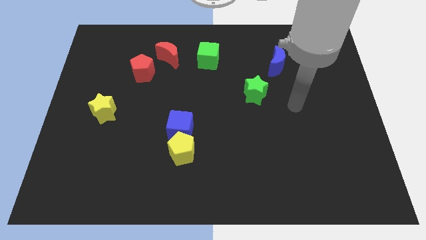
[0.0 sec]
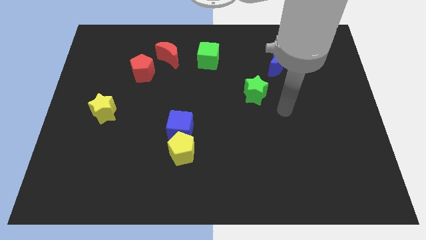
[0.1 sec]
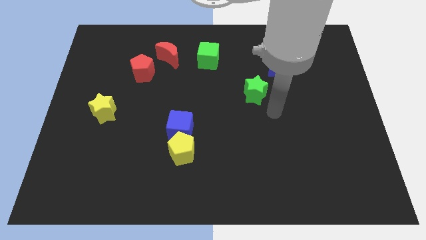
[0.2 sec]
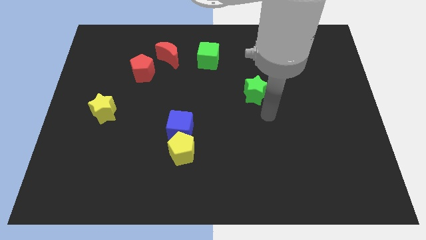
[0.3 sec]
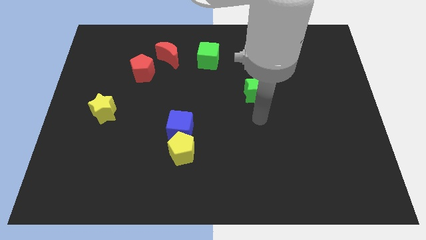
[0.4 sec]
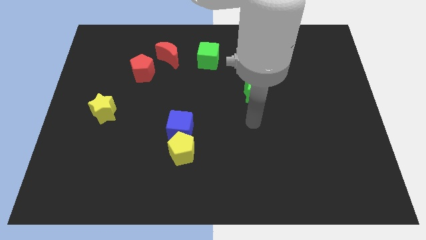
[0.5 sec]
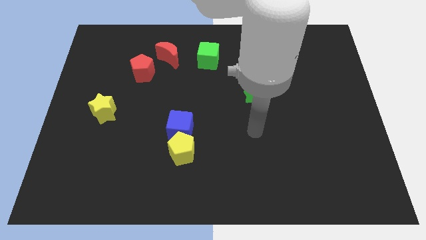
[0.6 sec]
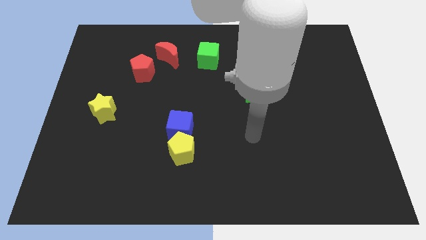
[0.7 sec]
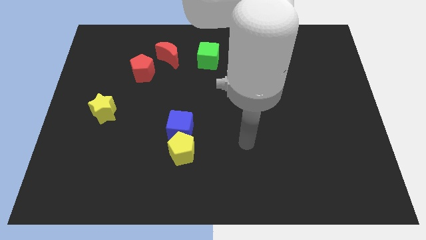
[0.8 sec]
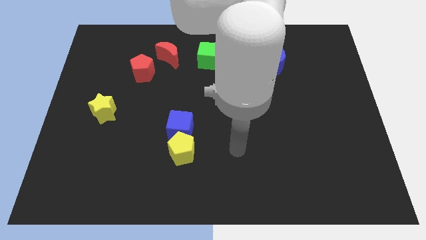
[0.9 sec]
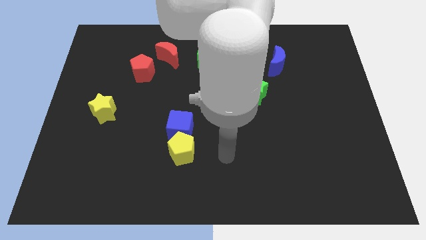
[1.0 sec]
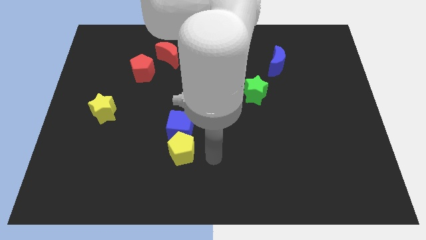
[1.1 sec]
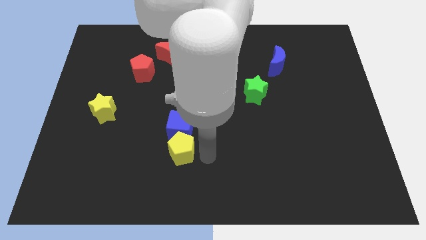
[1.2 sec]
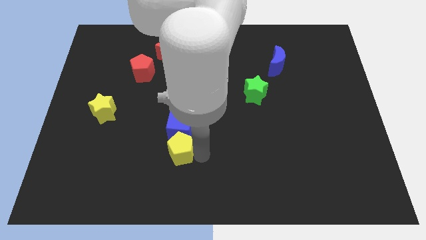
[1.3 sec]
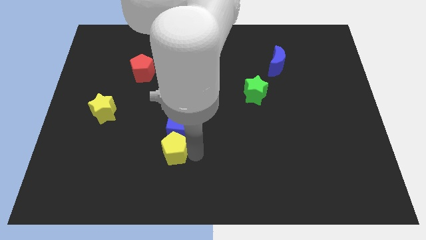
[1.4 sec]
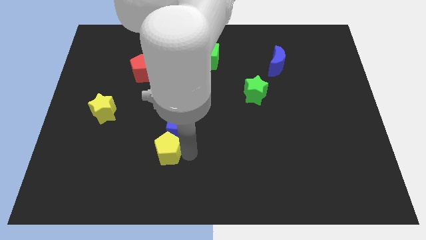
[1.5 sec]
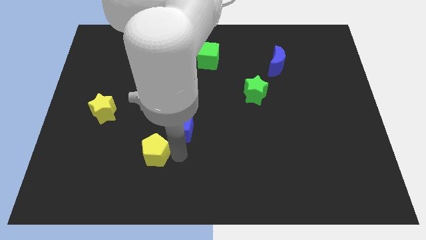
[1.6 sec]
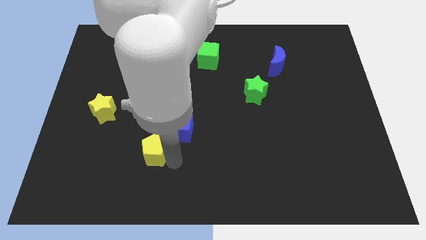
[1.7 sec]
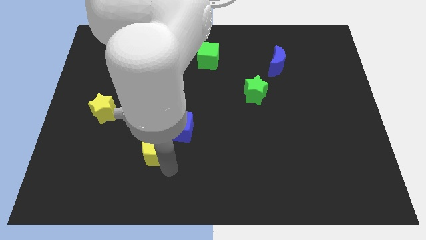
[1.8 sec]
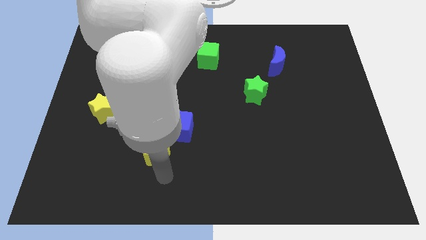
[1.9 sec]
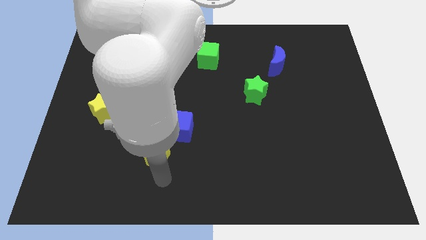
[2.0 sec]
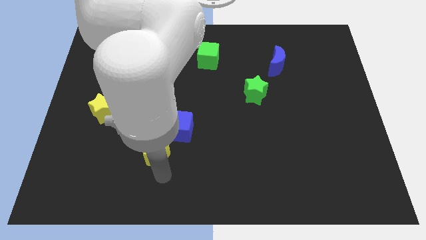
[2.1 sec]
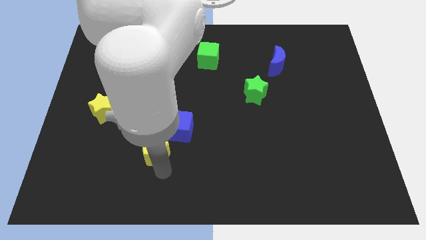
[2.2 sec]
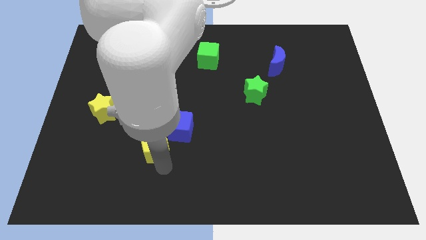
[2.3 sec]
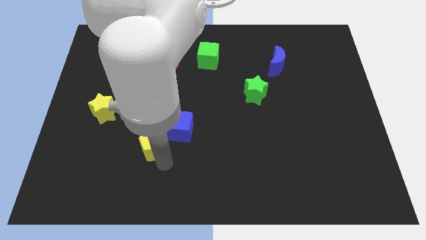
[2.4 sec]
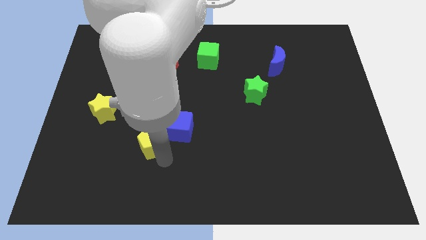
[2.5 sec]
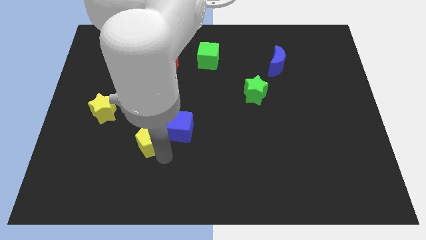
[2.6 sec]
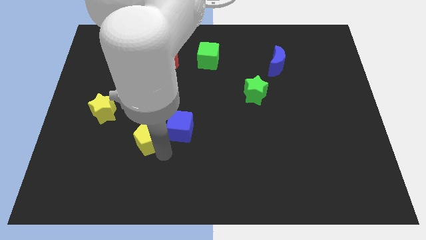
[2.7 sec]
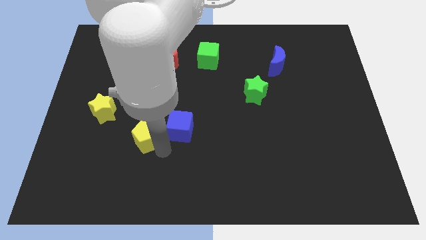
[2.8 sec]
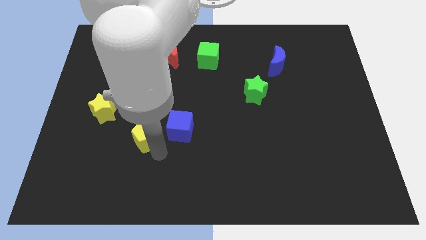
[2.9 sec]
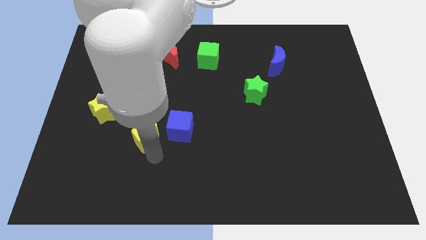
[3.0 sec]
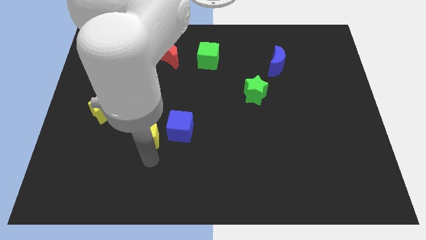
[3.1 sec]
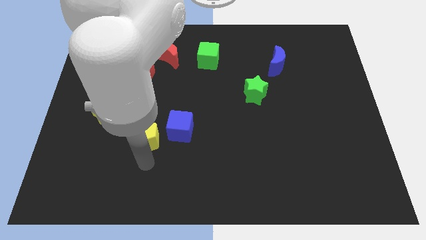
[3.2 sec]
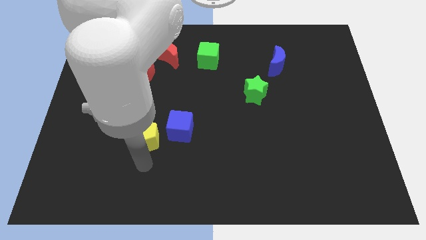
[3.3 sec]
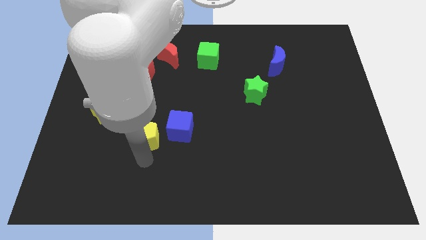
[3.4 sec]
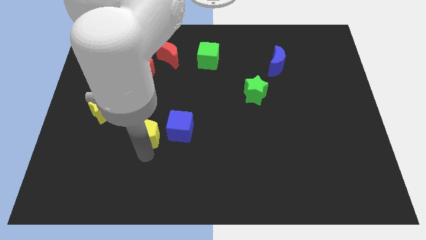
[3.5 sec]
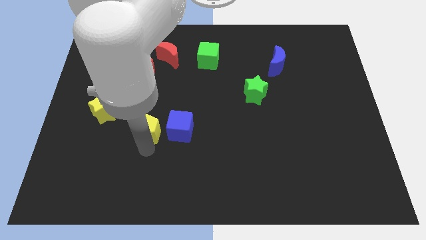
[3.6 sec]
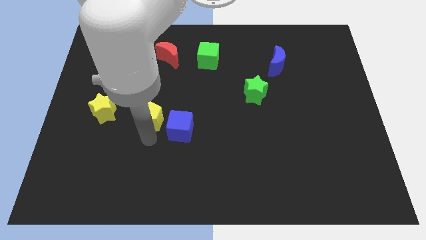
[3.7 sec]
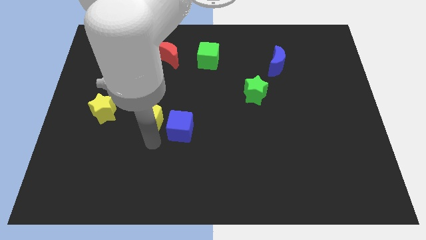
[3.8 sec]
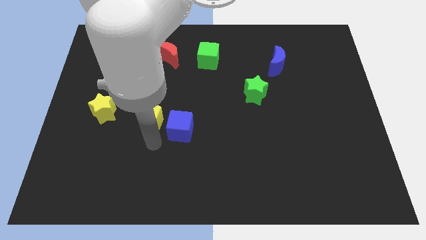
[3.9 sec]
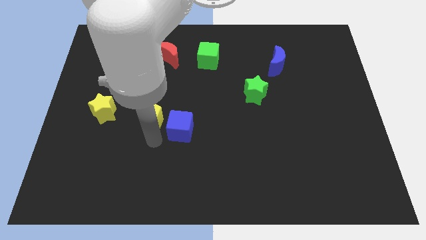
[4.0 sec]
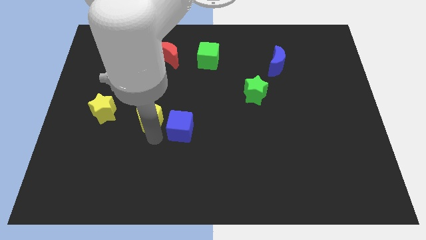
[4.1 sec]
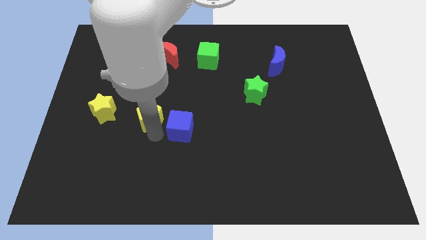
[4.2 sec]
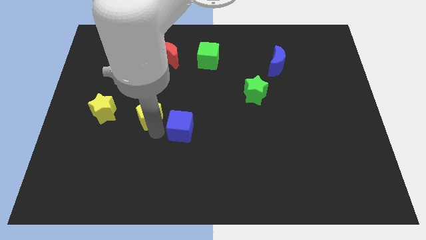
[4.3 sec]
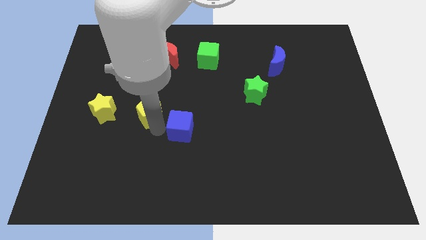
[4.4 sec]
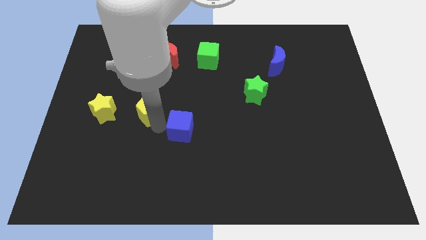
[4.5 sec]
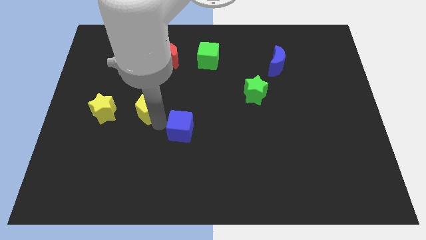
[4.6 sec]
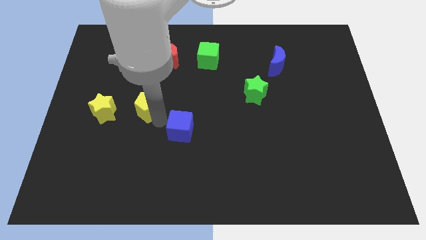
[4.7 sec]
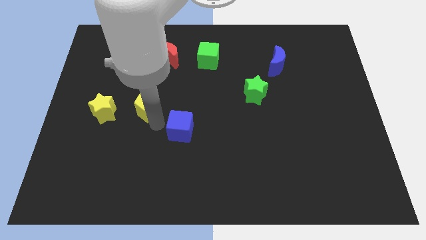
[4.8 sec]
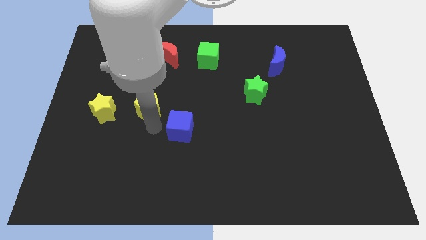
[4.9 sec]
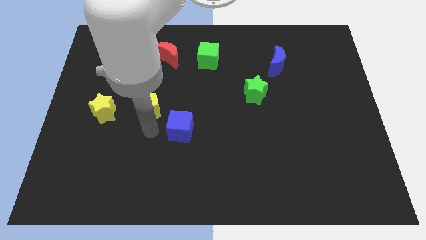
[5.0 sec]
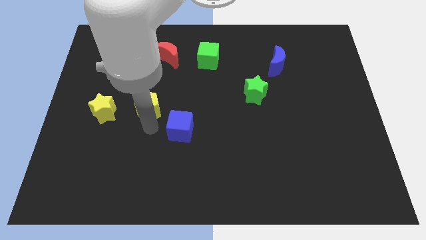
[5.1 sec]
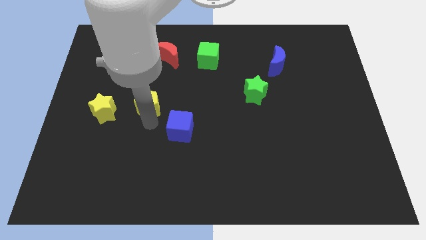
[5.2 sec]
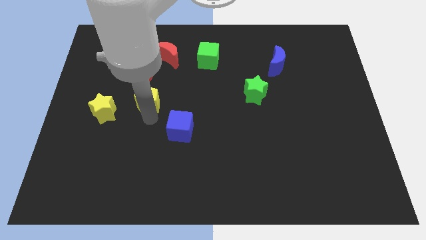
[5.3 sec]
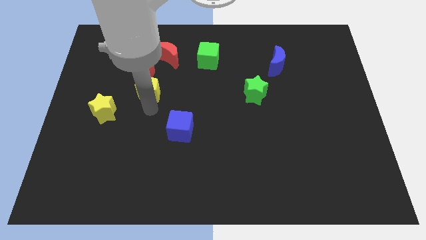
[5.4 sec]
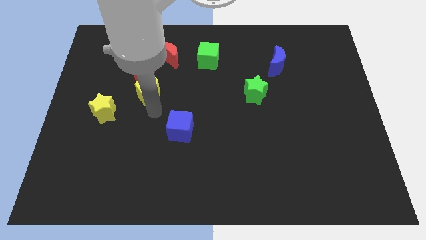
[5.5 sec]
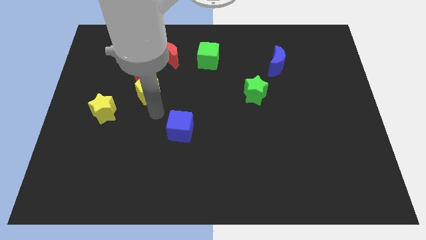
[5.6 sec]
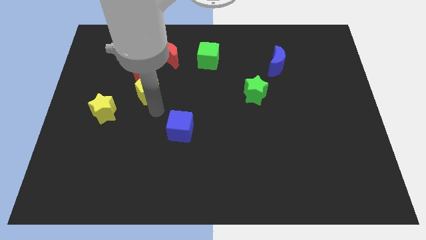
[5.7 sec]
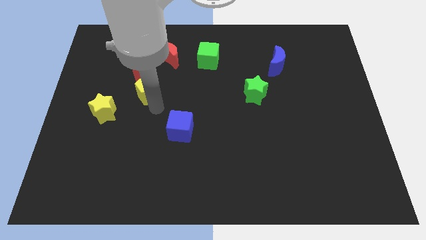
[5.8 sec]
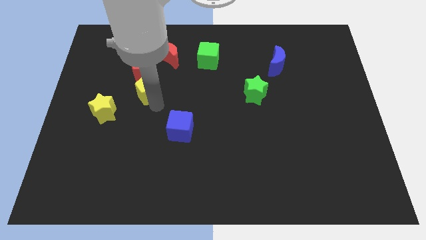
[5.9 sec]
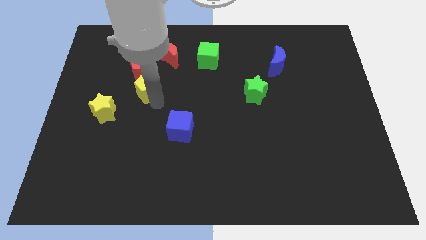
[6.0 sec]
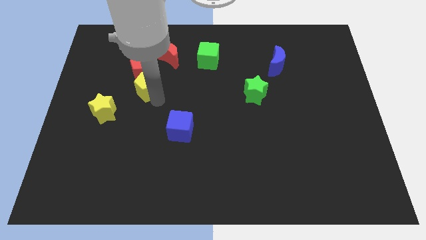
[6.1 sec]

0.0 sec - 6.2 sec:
put the yellow pentagon towards the red pentagon

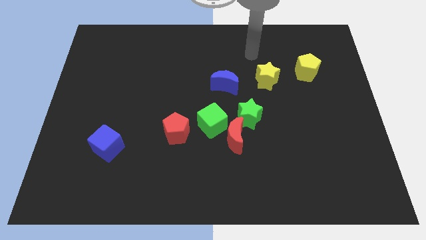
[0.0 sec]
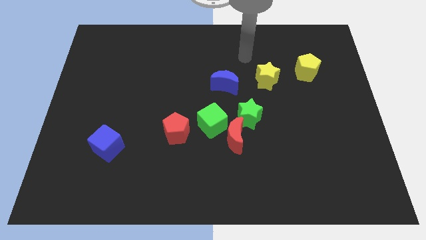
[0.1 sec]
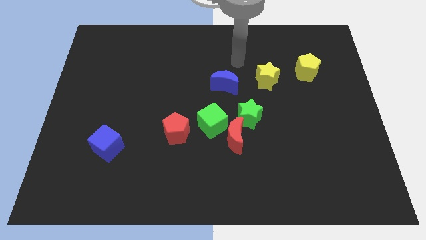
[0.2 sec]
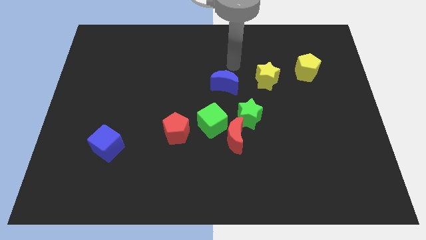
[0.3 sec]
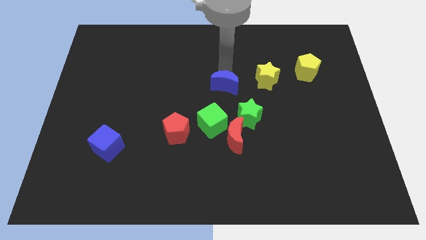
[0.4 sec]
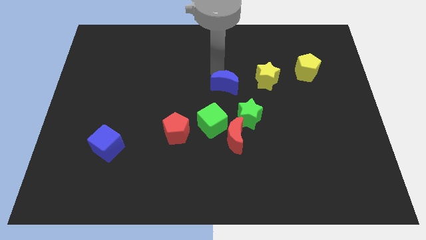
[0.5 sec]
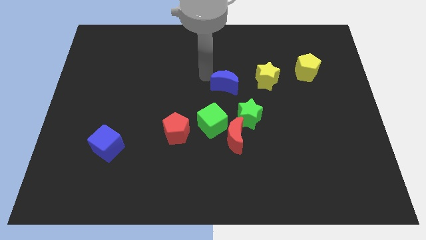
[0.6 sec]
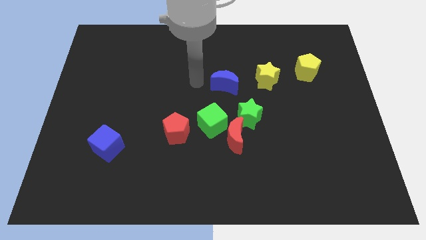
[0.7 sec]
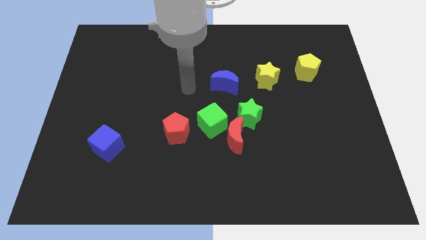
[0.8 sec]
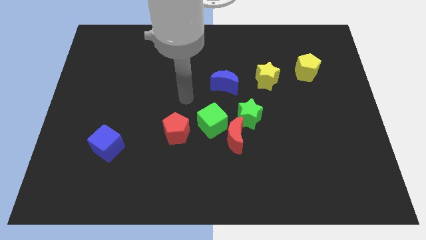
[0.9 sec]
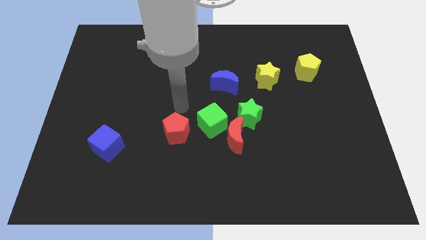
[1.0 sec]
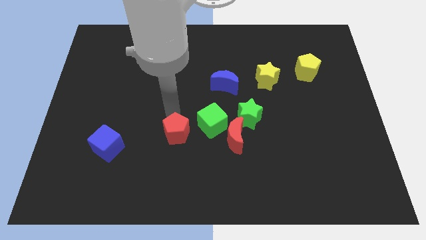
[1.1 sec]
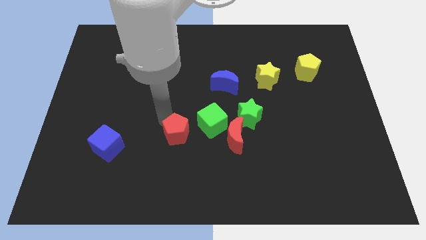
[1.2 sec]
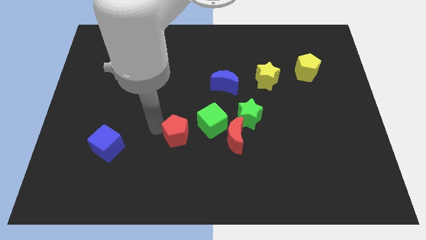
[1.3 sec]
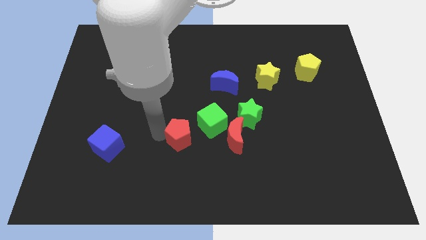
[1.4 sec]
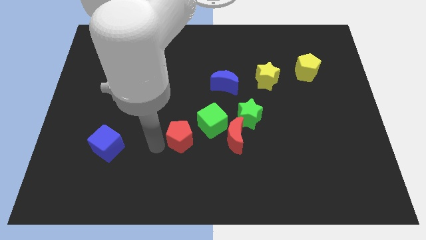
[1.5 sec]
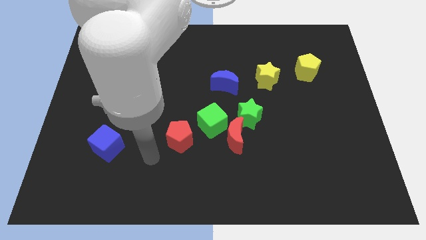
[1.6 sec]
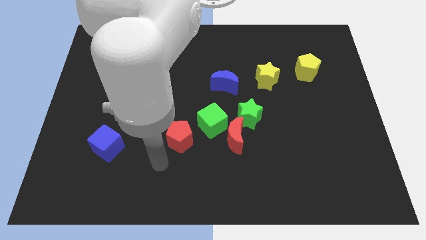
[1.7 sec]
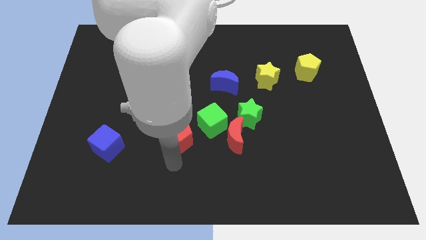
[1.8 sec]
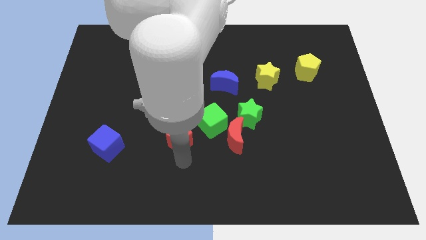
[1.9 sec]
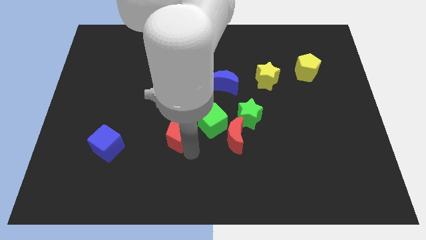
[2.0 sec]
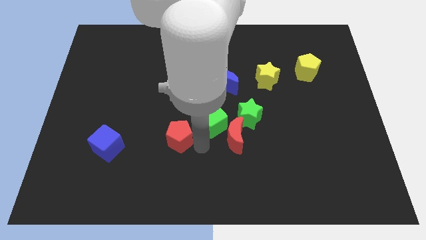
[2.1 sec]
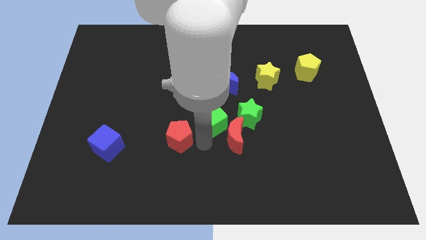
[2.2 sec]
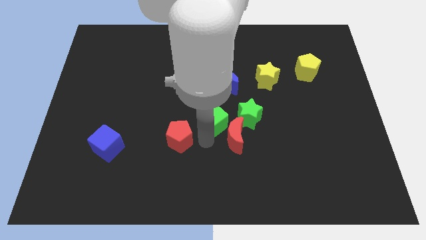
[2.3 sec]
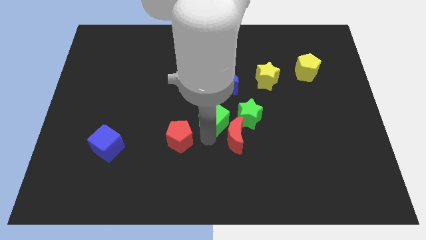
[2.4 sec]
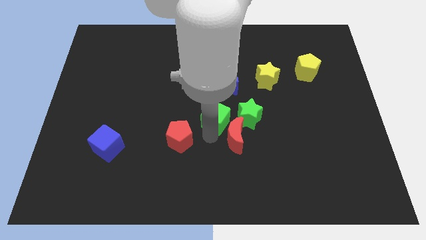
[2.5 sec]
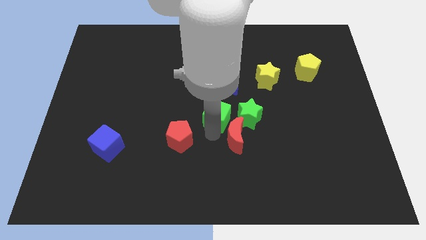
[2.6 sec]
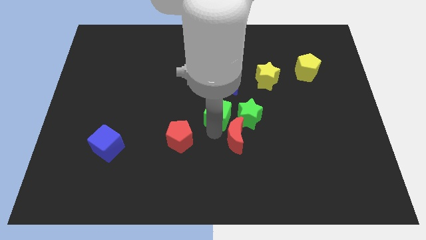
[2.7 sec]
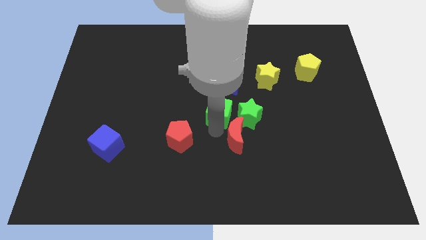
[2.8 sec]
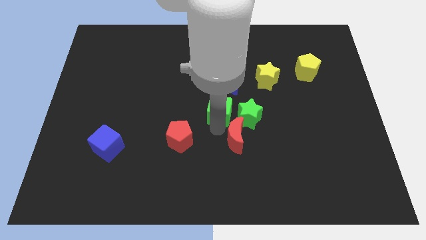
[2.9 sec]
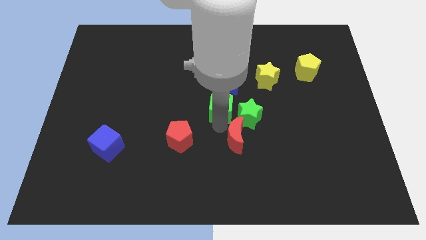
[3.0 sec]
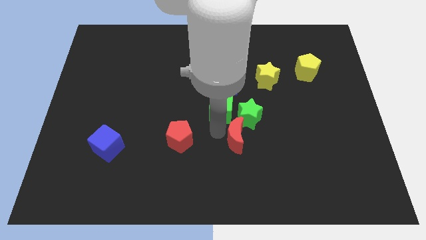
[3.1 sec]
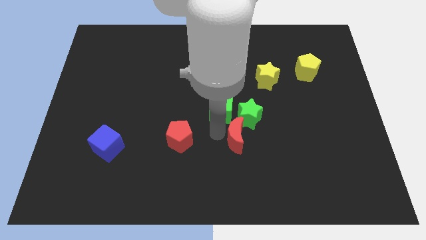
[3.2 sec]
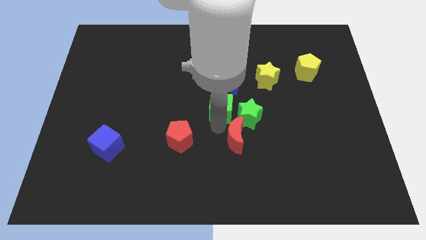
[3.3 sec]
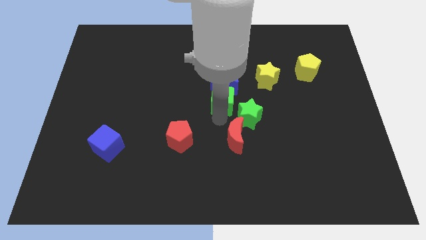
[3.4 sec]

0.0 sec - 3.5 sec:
put the green cube close to the blue moon
